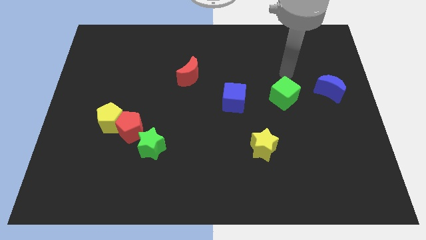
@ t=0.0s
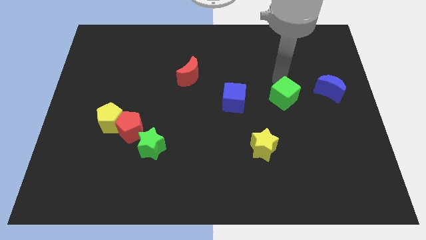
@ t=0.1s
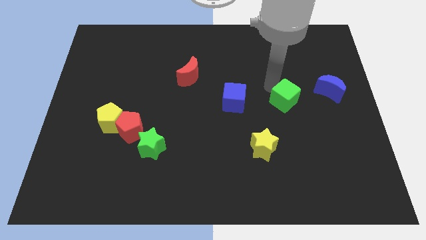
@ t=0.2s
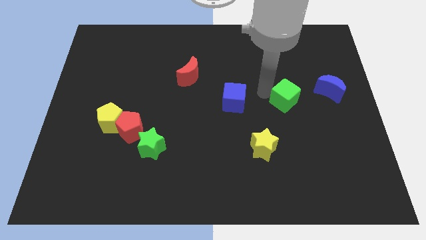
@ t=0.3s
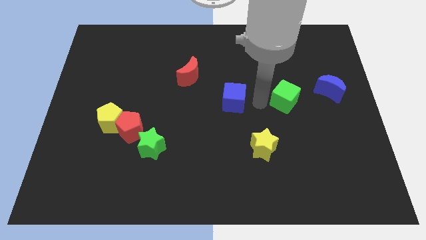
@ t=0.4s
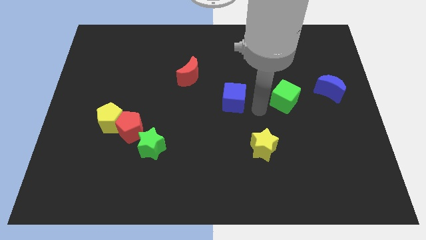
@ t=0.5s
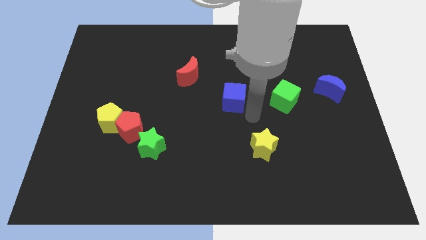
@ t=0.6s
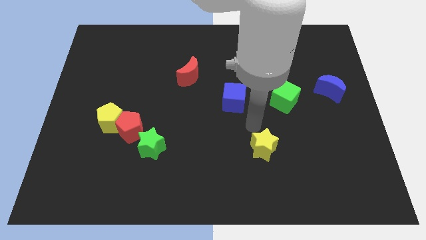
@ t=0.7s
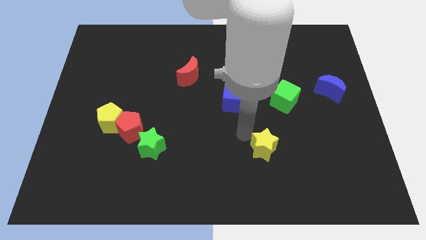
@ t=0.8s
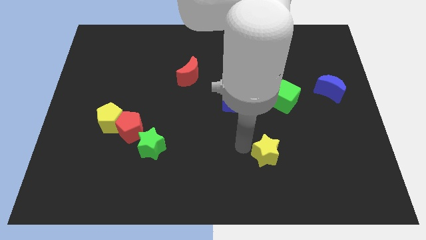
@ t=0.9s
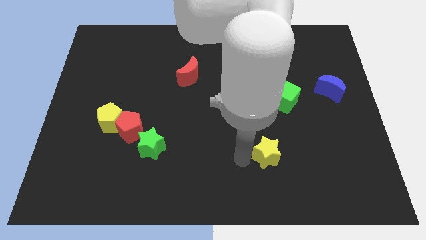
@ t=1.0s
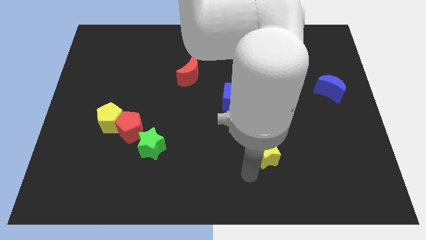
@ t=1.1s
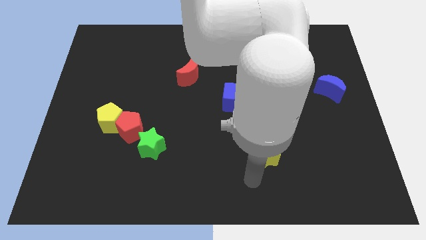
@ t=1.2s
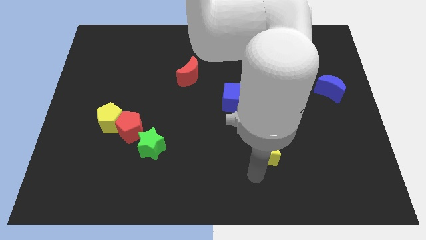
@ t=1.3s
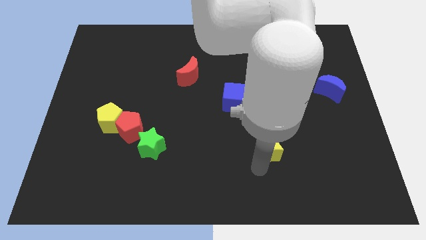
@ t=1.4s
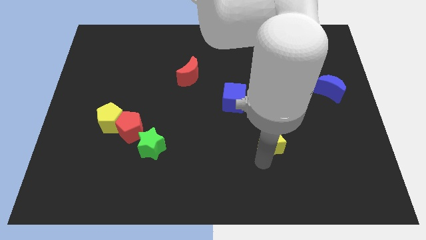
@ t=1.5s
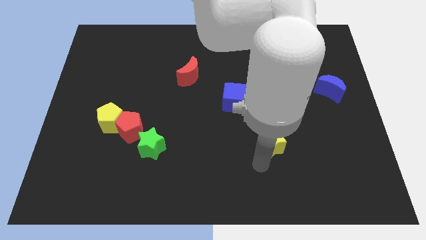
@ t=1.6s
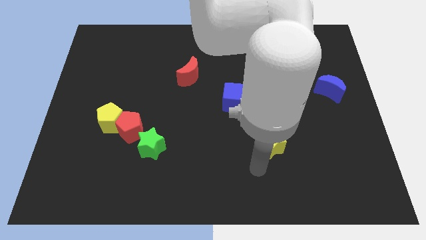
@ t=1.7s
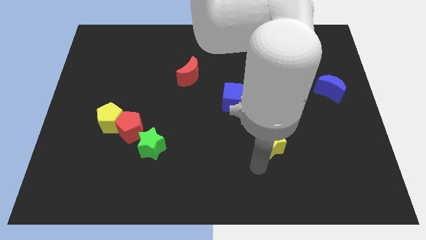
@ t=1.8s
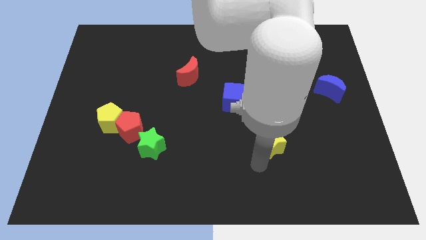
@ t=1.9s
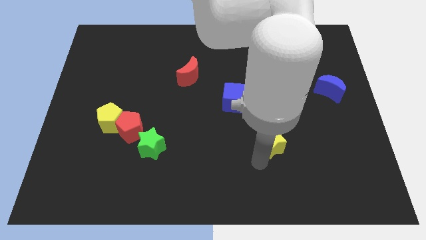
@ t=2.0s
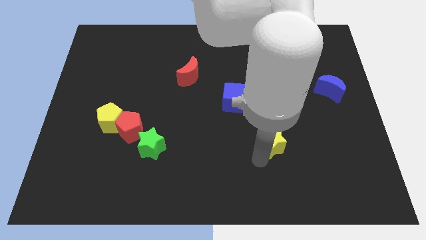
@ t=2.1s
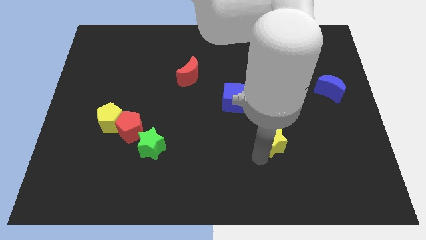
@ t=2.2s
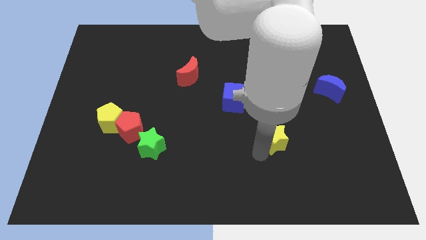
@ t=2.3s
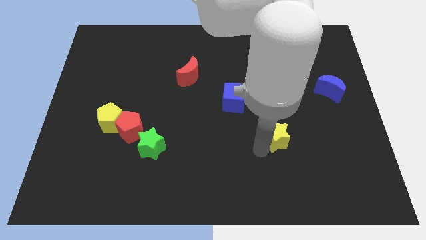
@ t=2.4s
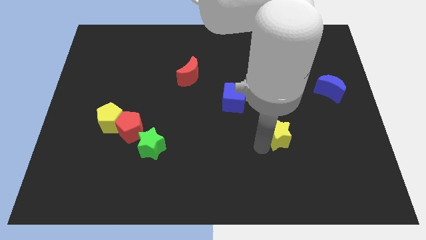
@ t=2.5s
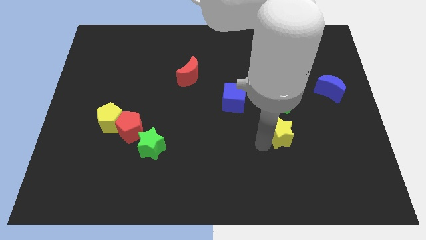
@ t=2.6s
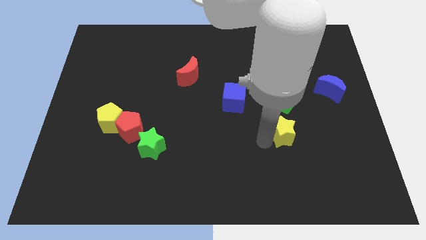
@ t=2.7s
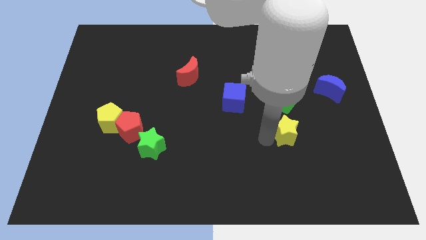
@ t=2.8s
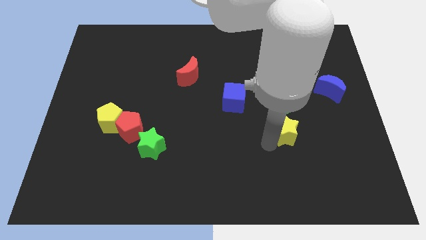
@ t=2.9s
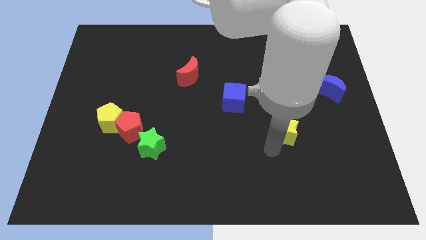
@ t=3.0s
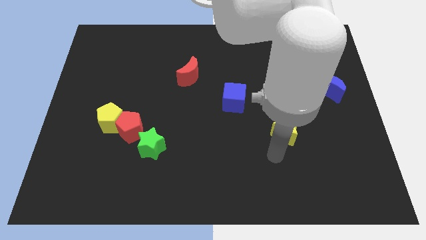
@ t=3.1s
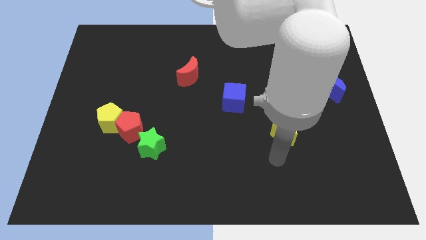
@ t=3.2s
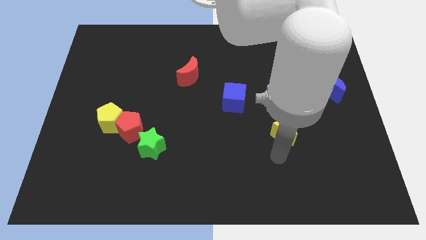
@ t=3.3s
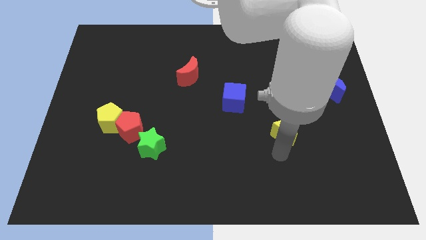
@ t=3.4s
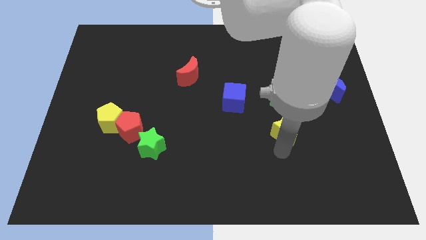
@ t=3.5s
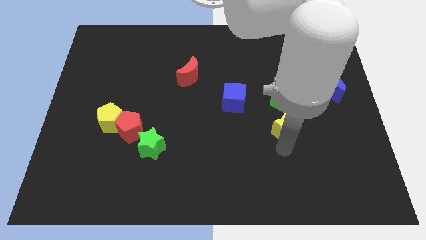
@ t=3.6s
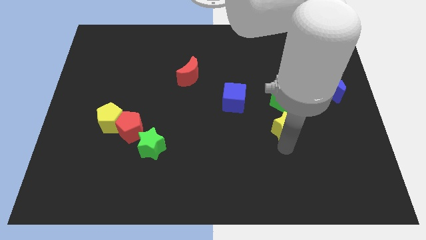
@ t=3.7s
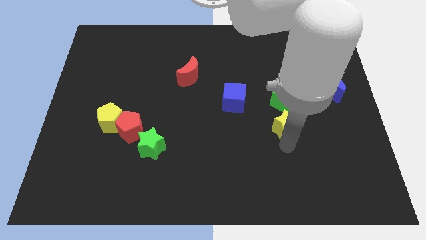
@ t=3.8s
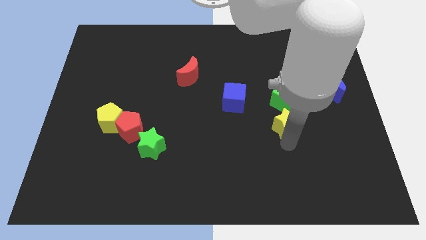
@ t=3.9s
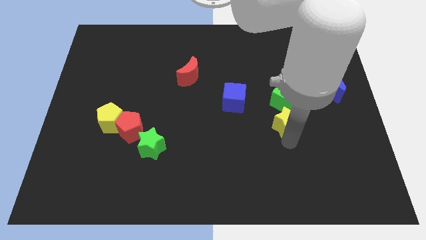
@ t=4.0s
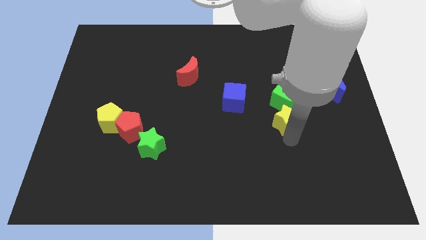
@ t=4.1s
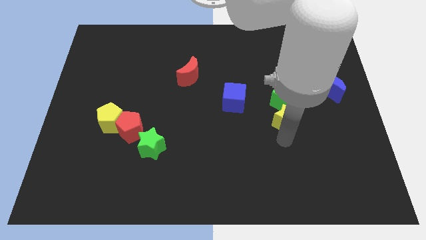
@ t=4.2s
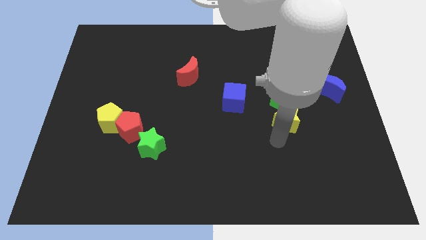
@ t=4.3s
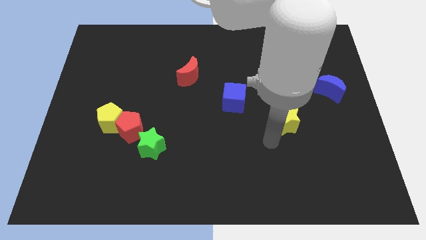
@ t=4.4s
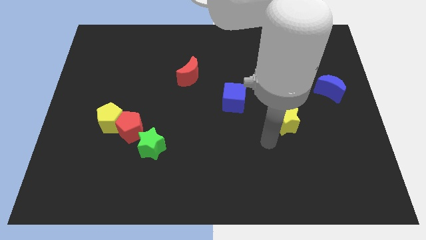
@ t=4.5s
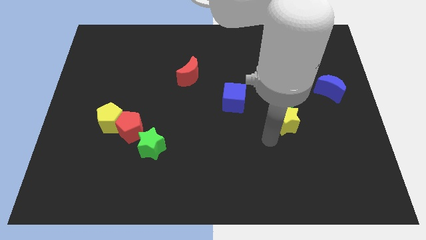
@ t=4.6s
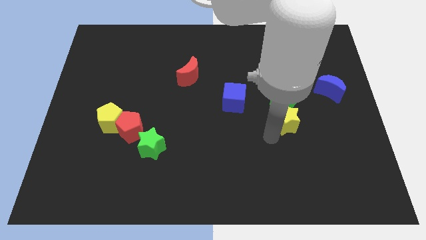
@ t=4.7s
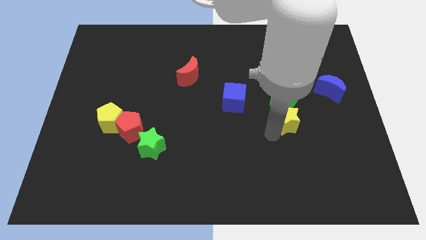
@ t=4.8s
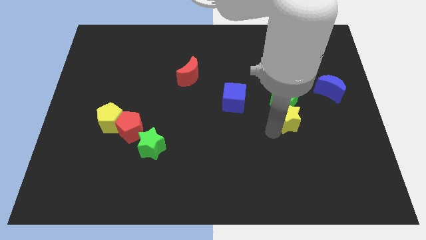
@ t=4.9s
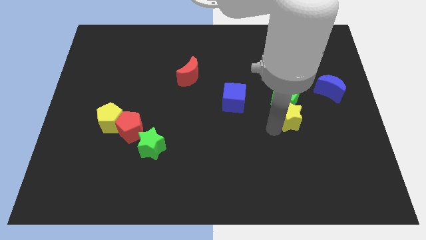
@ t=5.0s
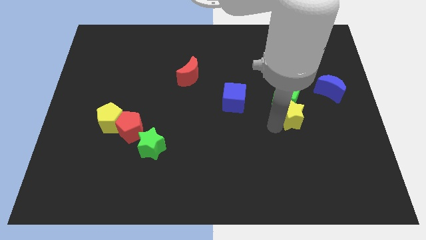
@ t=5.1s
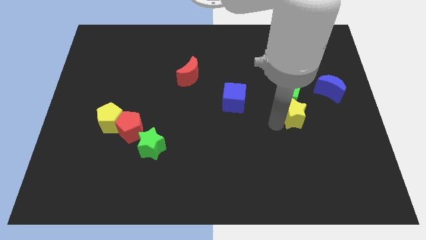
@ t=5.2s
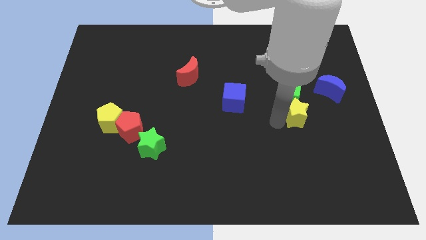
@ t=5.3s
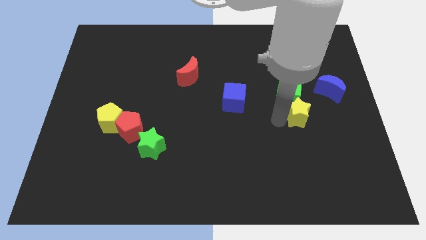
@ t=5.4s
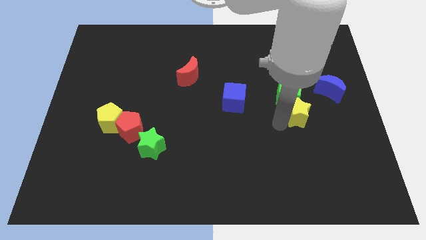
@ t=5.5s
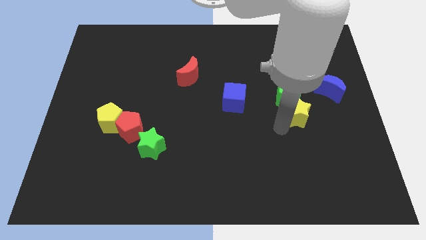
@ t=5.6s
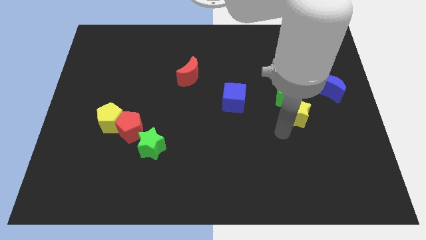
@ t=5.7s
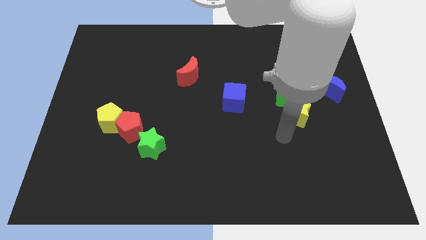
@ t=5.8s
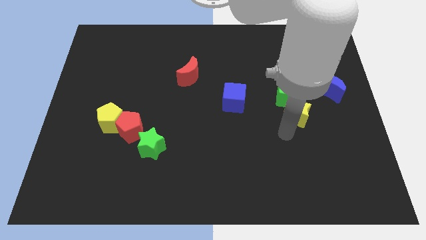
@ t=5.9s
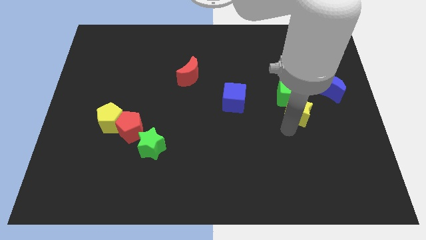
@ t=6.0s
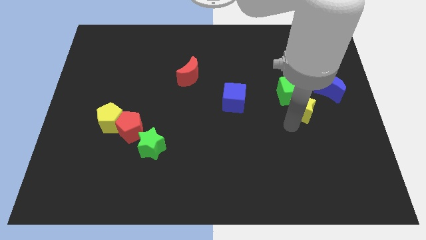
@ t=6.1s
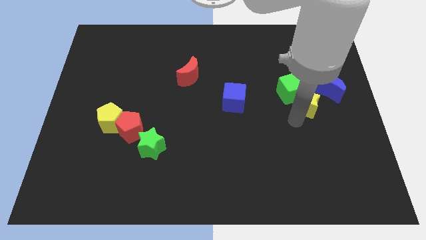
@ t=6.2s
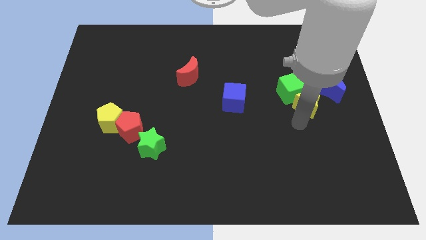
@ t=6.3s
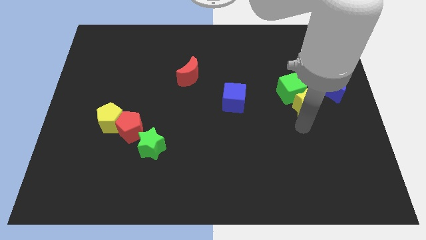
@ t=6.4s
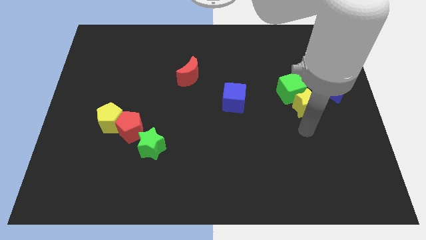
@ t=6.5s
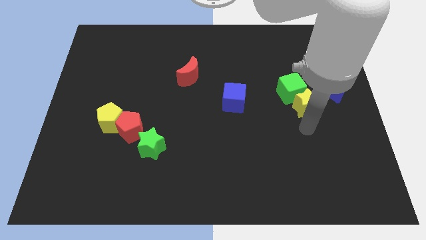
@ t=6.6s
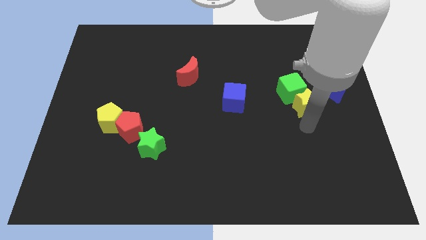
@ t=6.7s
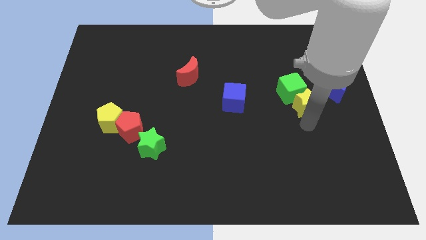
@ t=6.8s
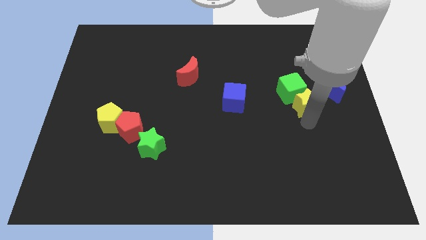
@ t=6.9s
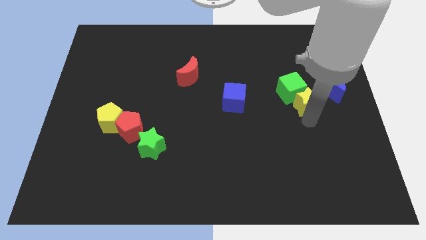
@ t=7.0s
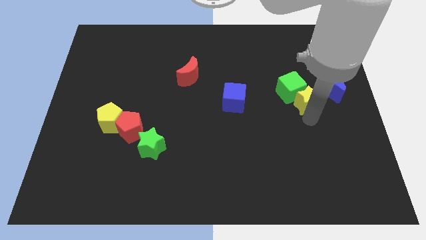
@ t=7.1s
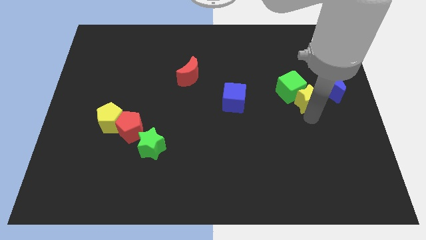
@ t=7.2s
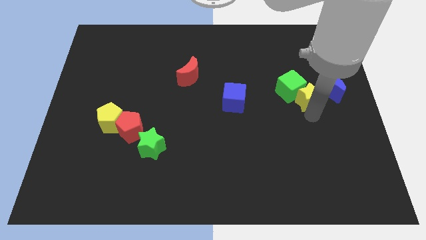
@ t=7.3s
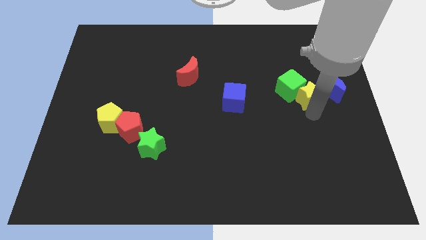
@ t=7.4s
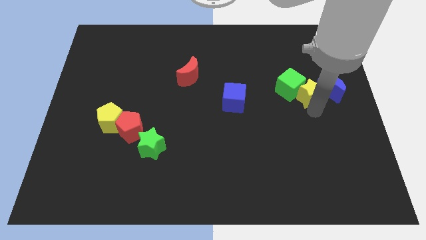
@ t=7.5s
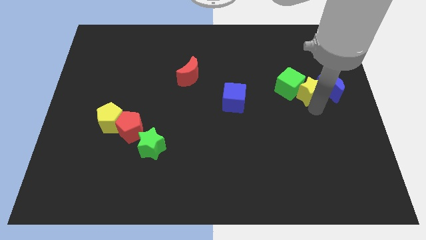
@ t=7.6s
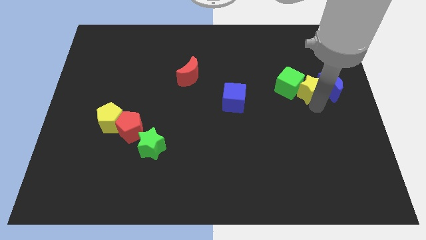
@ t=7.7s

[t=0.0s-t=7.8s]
put the yellow star to the top left of the blue moon
